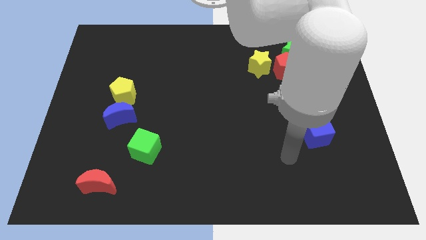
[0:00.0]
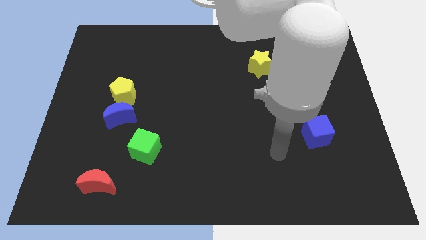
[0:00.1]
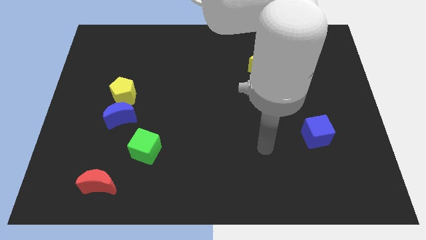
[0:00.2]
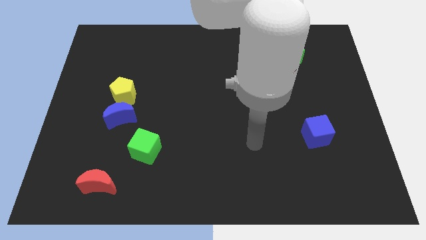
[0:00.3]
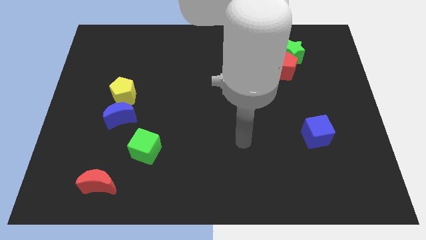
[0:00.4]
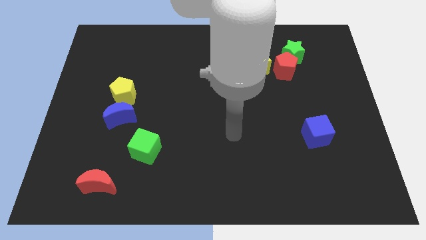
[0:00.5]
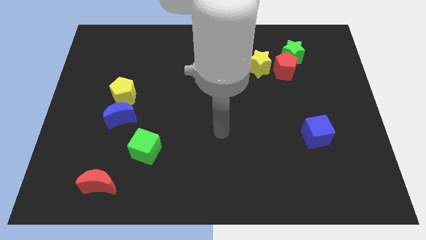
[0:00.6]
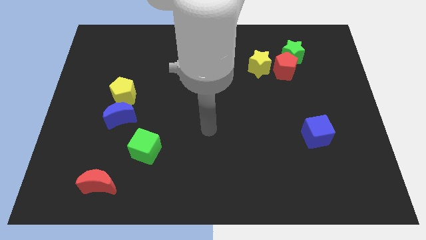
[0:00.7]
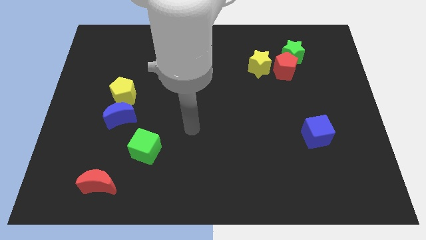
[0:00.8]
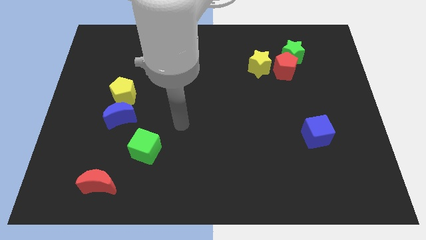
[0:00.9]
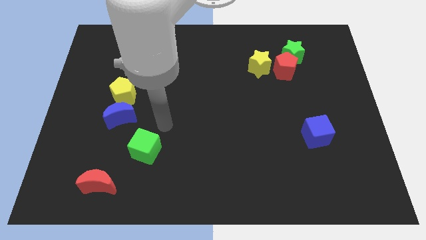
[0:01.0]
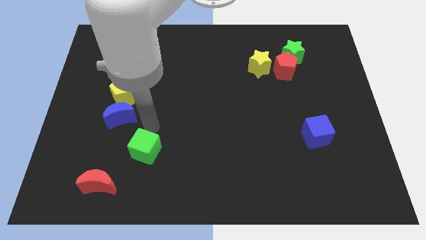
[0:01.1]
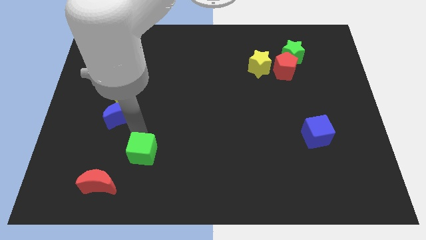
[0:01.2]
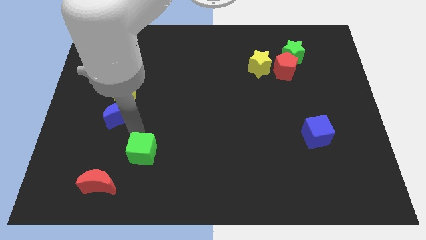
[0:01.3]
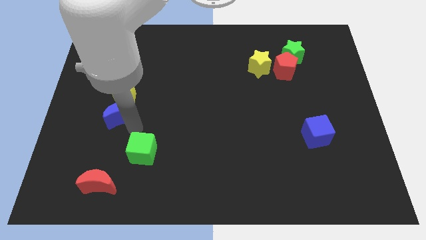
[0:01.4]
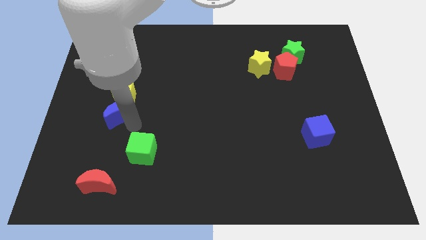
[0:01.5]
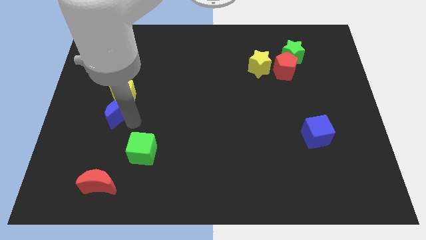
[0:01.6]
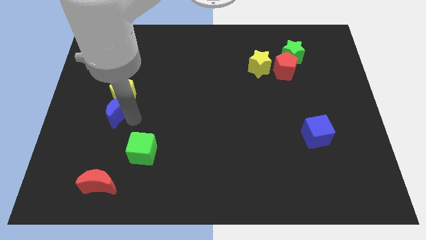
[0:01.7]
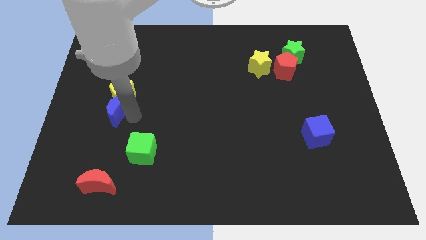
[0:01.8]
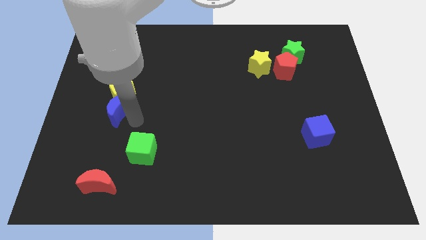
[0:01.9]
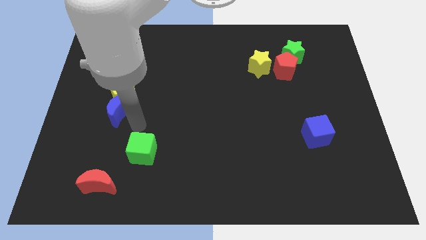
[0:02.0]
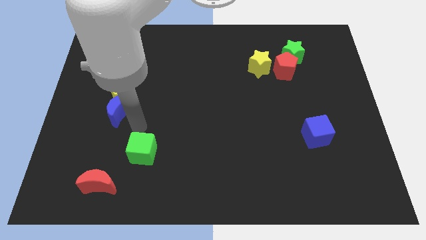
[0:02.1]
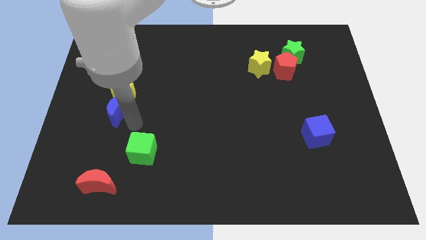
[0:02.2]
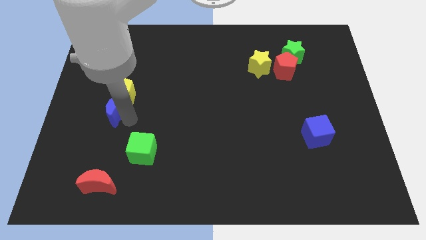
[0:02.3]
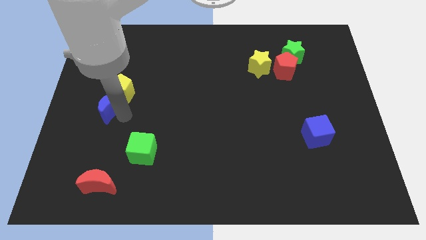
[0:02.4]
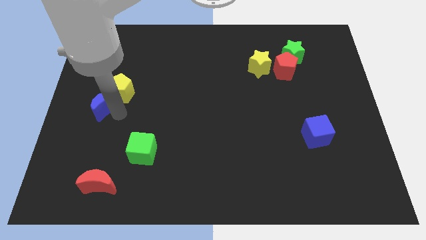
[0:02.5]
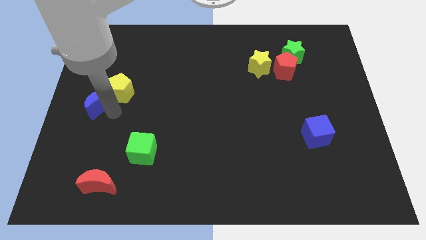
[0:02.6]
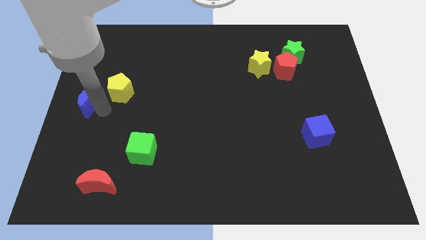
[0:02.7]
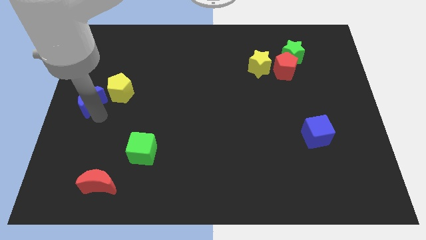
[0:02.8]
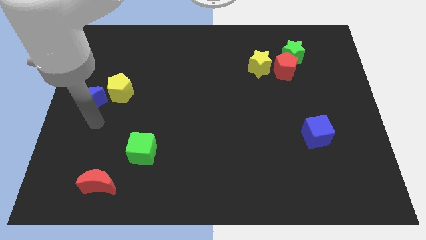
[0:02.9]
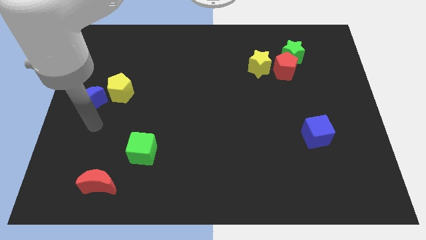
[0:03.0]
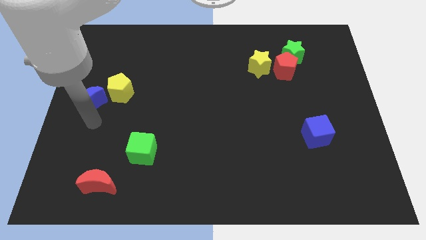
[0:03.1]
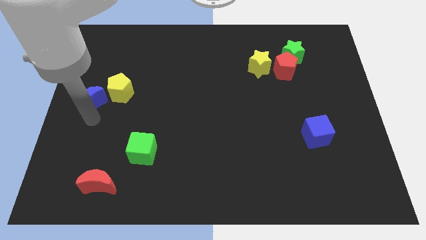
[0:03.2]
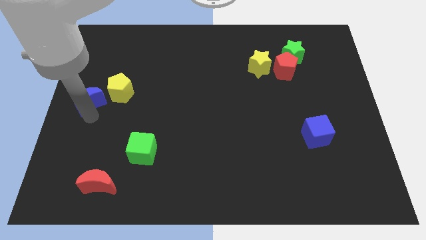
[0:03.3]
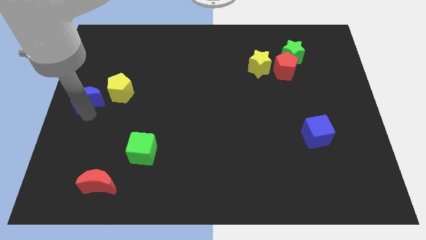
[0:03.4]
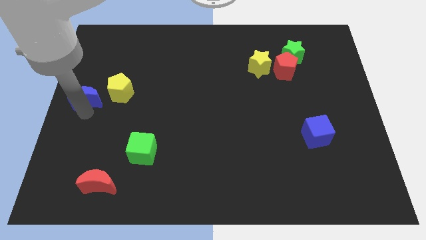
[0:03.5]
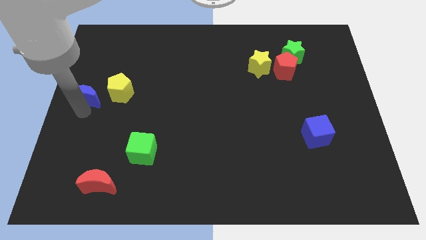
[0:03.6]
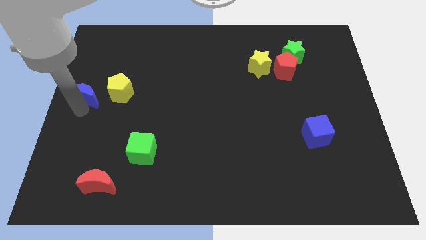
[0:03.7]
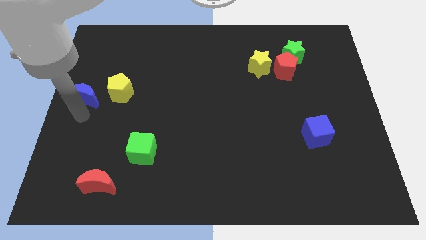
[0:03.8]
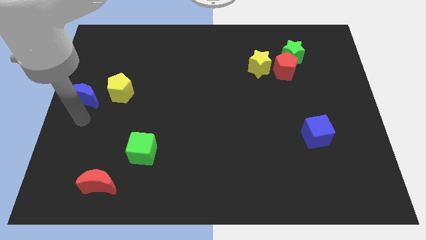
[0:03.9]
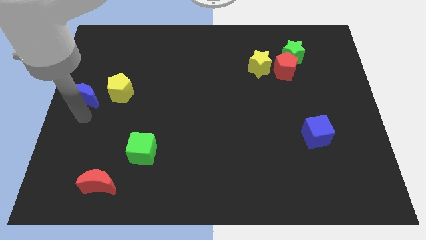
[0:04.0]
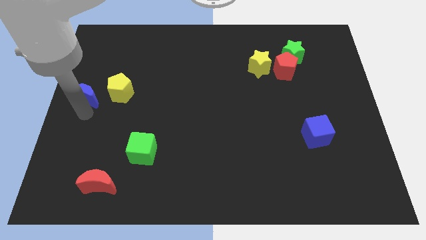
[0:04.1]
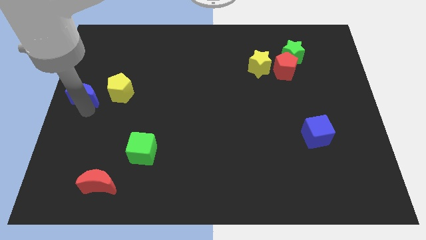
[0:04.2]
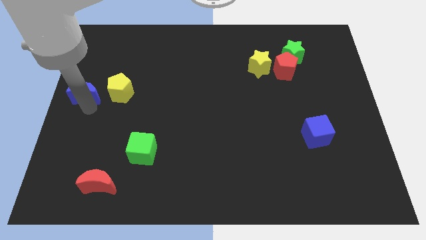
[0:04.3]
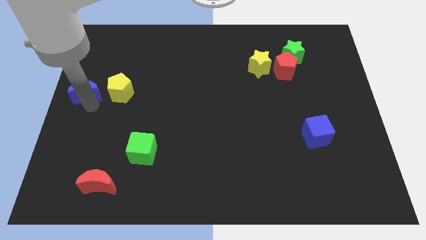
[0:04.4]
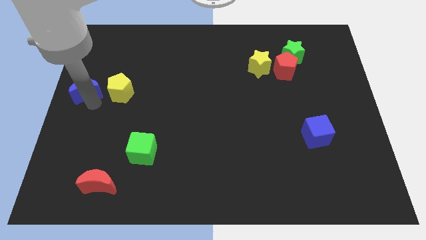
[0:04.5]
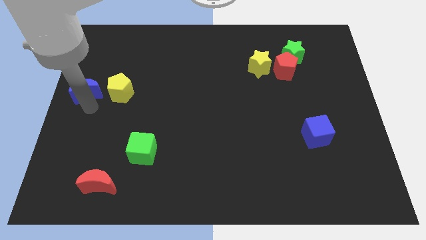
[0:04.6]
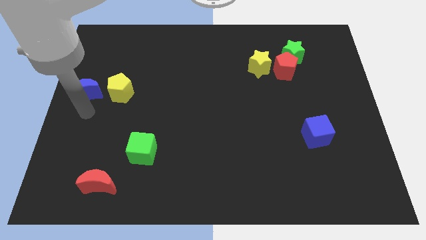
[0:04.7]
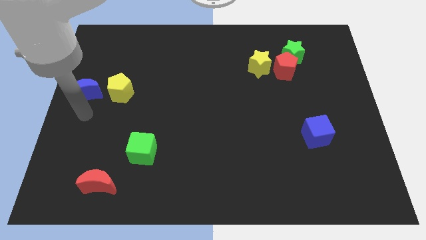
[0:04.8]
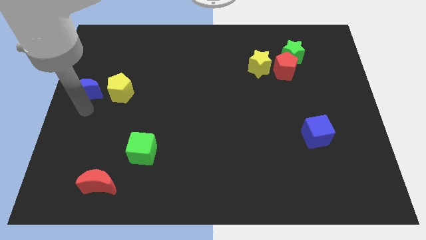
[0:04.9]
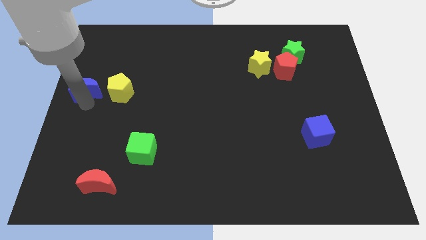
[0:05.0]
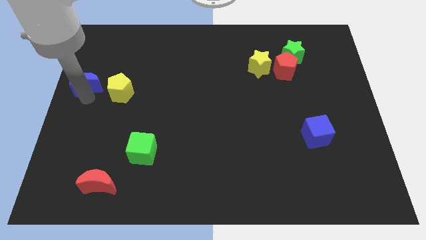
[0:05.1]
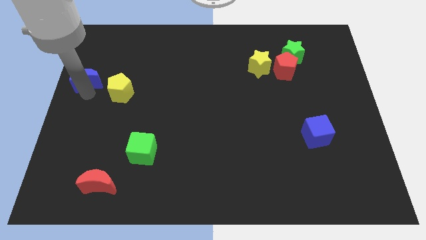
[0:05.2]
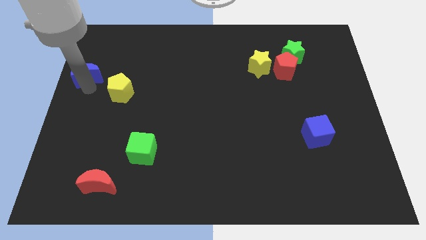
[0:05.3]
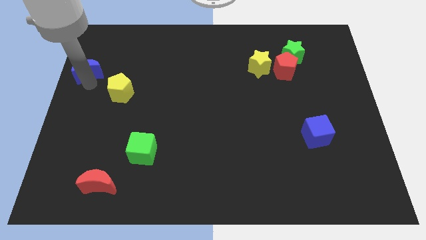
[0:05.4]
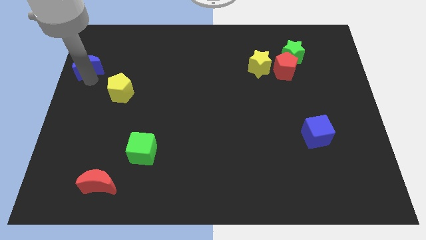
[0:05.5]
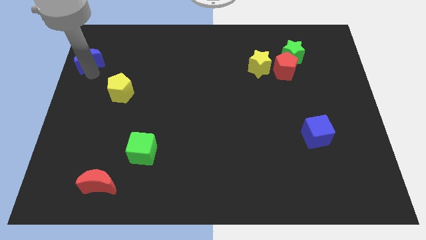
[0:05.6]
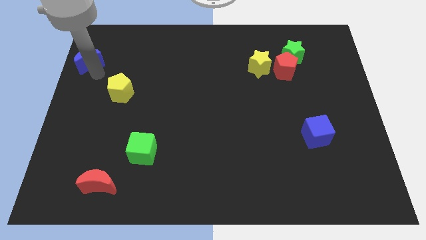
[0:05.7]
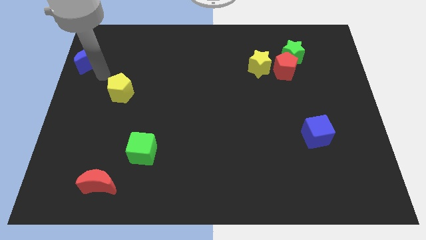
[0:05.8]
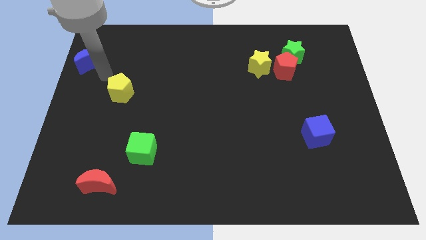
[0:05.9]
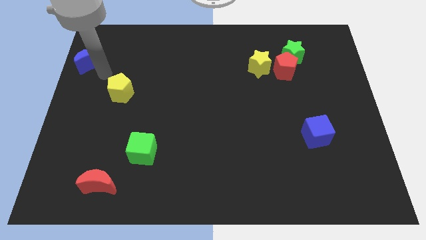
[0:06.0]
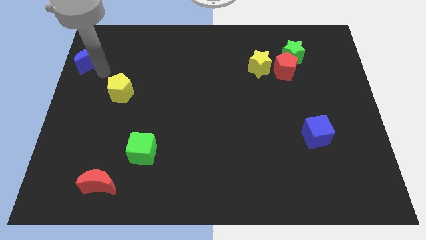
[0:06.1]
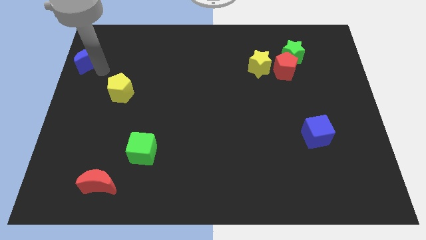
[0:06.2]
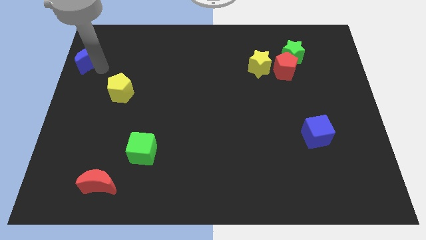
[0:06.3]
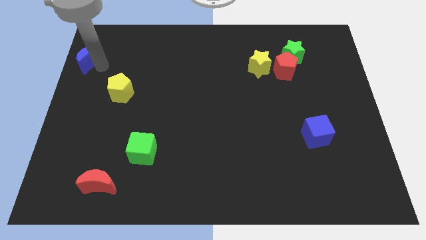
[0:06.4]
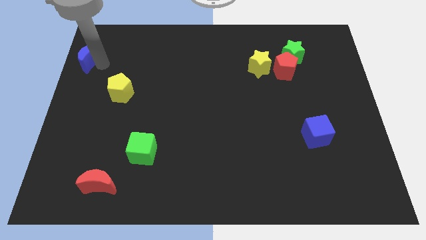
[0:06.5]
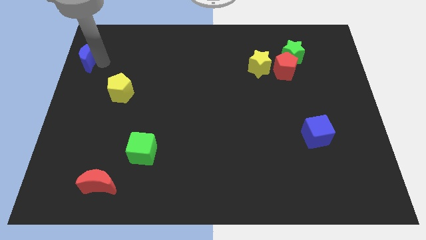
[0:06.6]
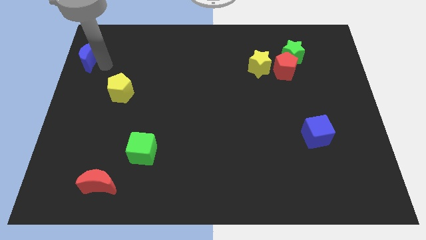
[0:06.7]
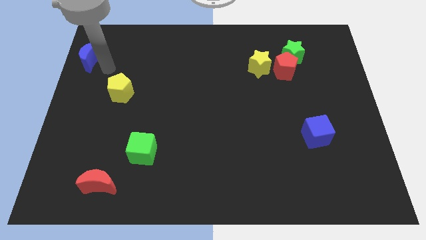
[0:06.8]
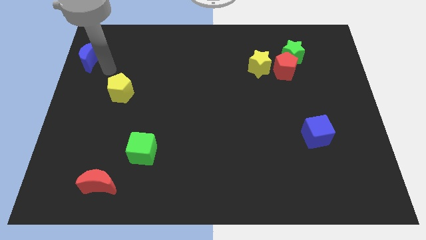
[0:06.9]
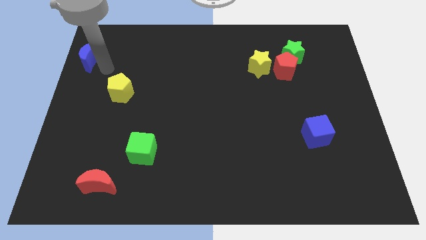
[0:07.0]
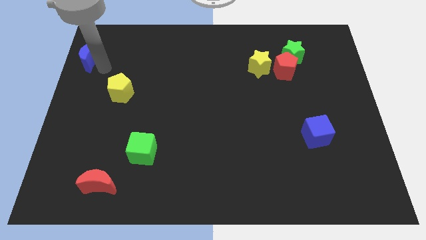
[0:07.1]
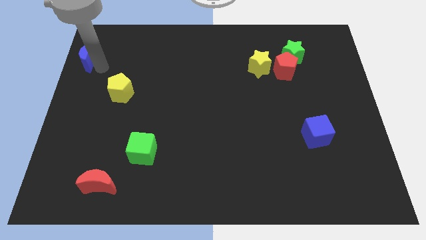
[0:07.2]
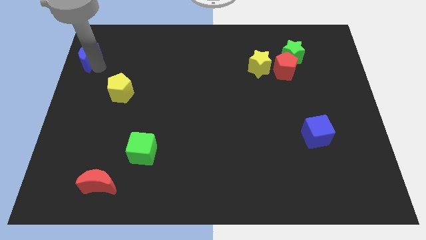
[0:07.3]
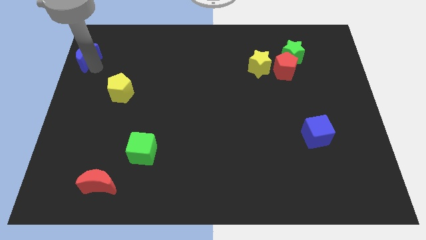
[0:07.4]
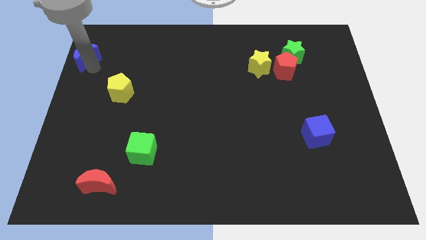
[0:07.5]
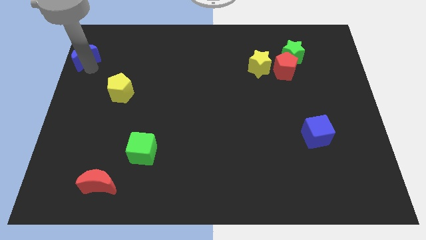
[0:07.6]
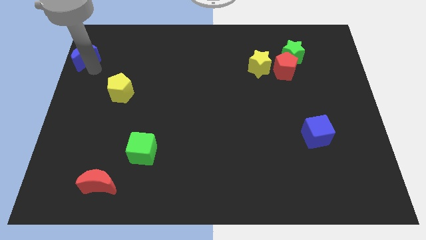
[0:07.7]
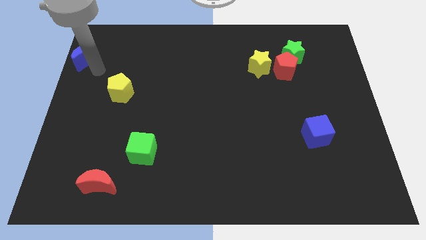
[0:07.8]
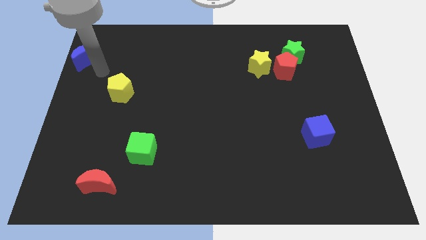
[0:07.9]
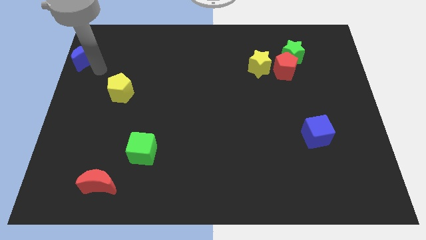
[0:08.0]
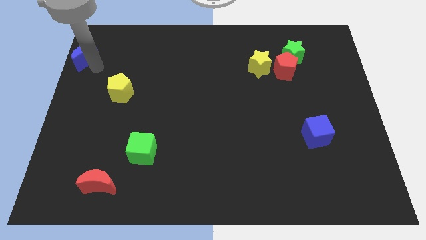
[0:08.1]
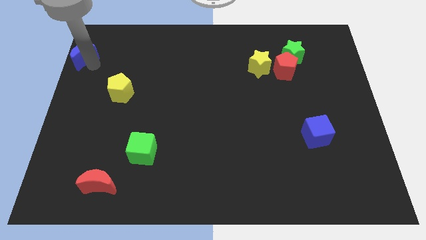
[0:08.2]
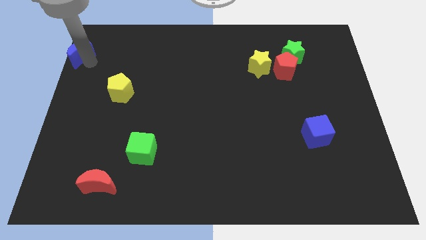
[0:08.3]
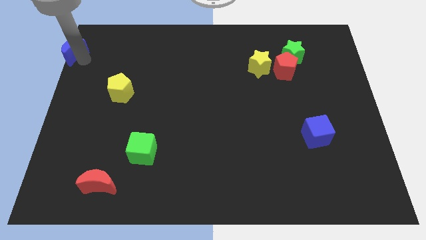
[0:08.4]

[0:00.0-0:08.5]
push the blue moon to the top left corner
